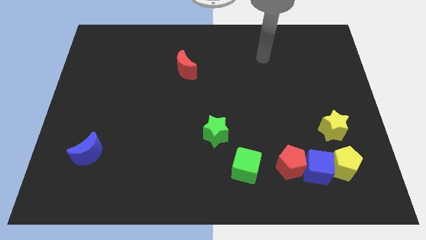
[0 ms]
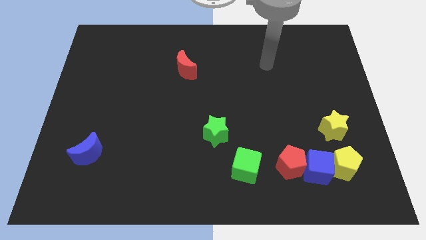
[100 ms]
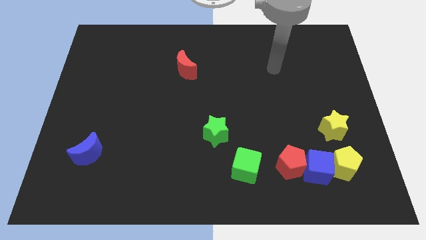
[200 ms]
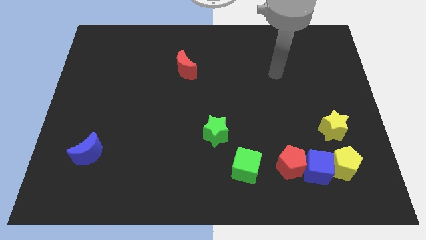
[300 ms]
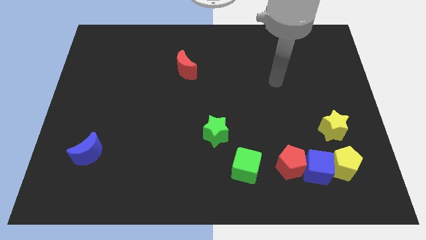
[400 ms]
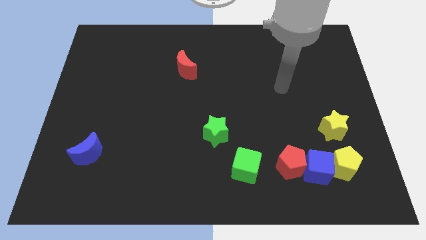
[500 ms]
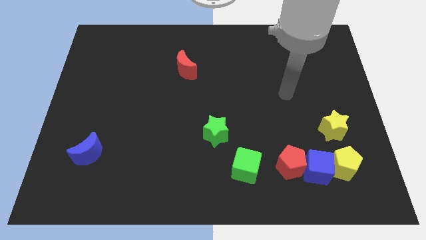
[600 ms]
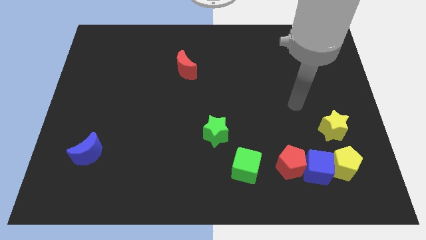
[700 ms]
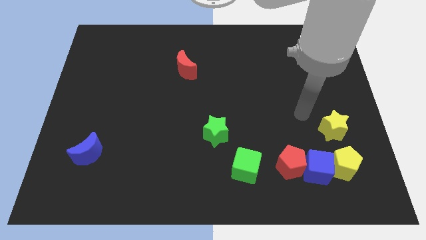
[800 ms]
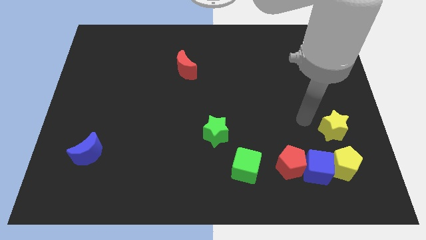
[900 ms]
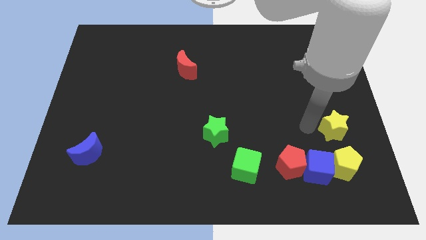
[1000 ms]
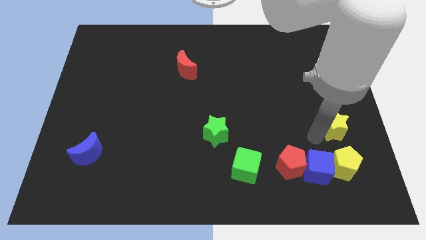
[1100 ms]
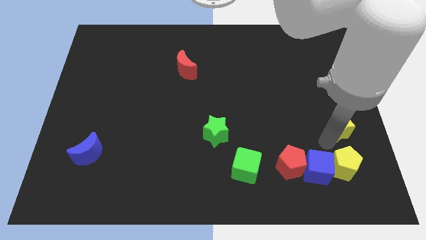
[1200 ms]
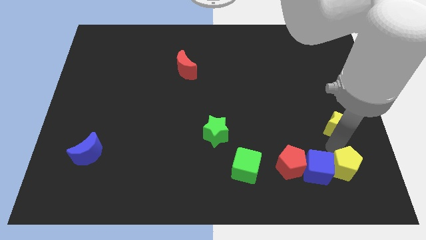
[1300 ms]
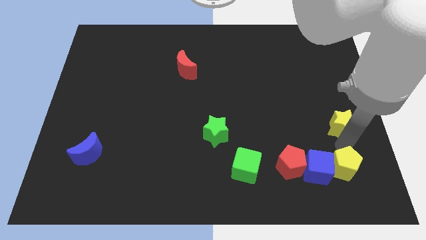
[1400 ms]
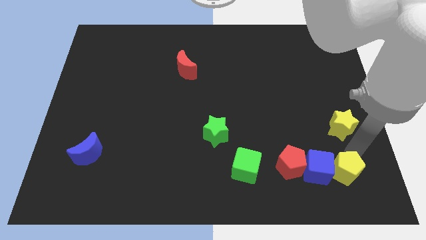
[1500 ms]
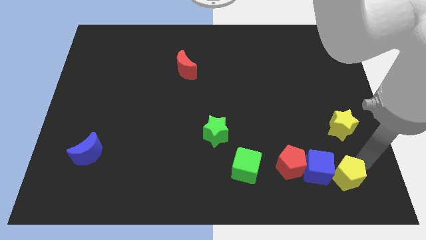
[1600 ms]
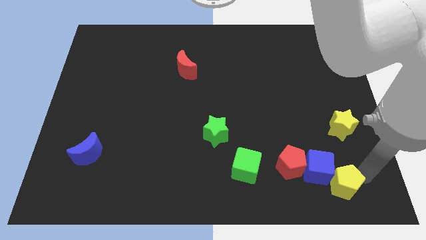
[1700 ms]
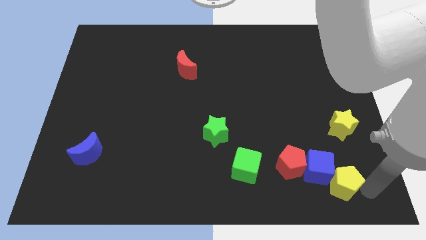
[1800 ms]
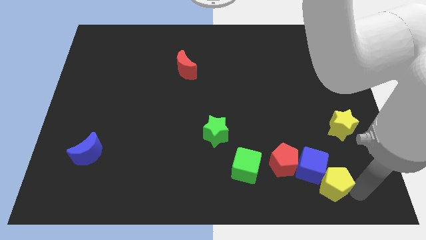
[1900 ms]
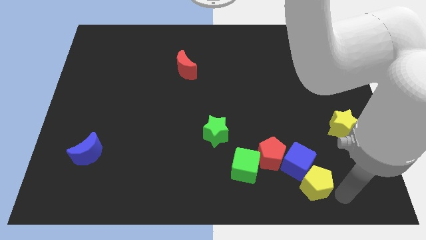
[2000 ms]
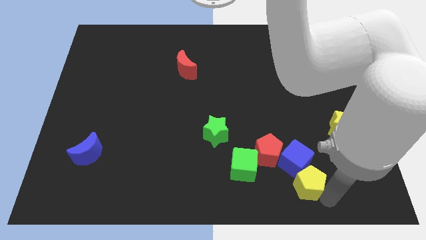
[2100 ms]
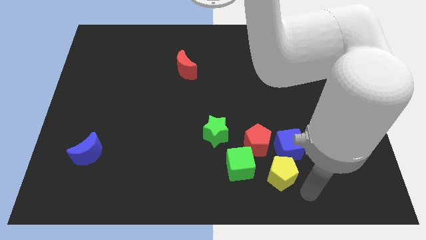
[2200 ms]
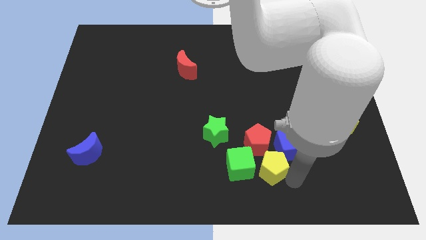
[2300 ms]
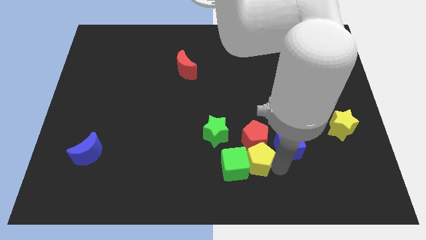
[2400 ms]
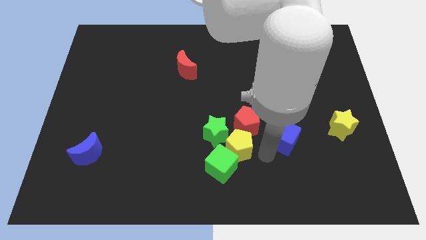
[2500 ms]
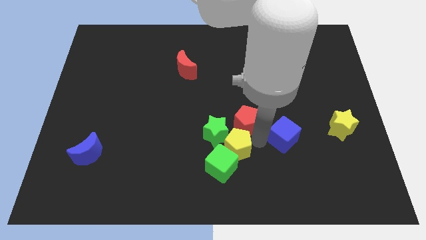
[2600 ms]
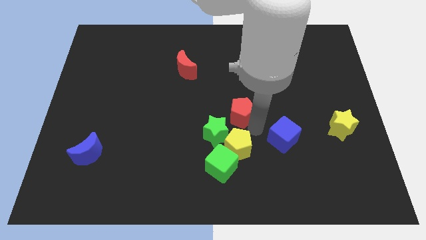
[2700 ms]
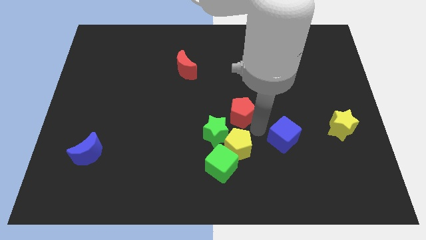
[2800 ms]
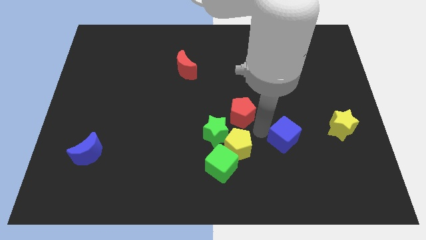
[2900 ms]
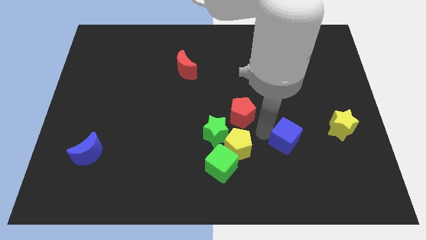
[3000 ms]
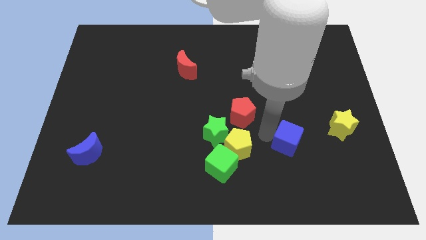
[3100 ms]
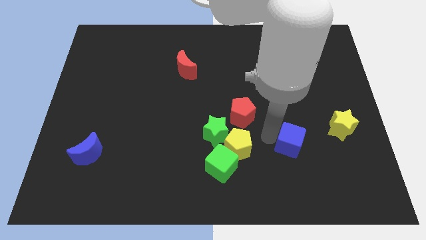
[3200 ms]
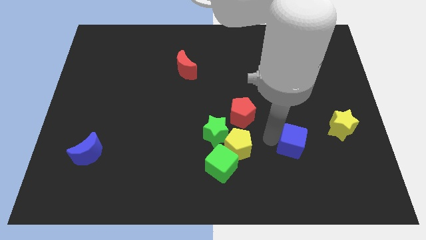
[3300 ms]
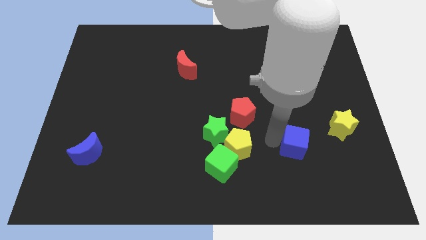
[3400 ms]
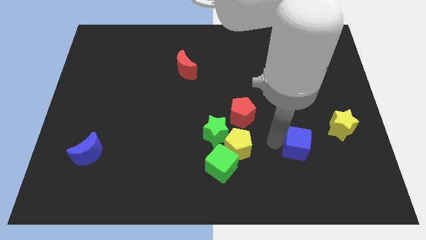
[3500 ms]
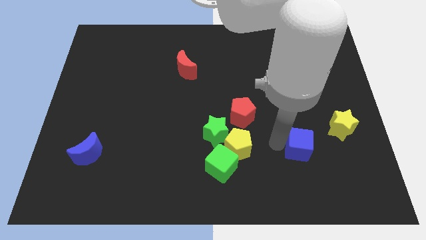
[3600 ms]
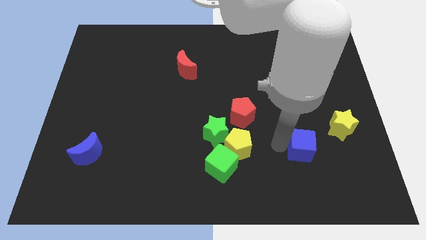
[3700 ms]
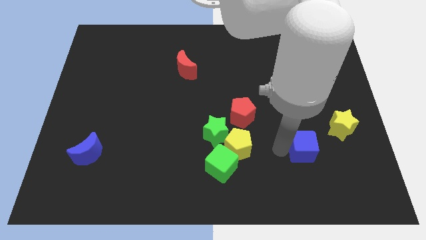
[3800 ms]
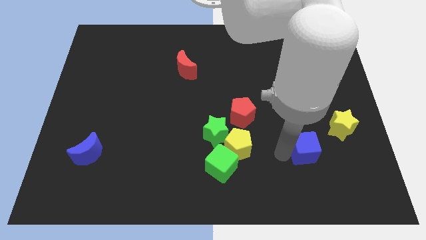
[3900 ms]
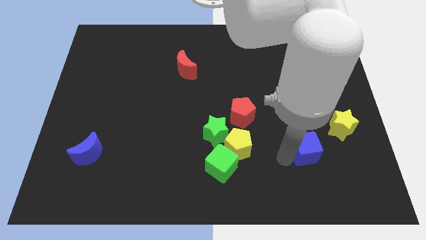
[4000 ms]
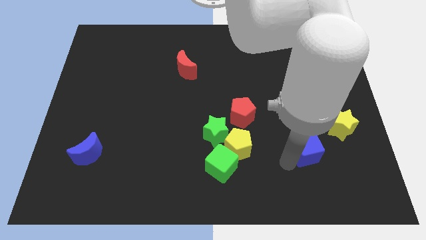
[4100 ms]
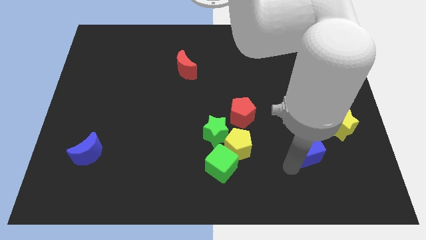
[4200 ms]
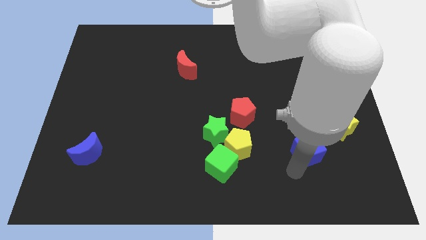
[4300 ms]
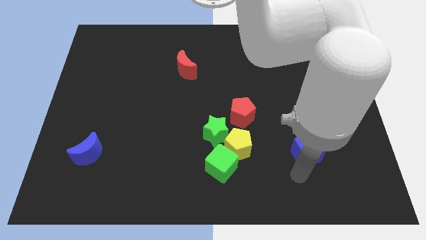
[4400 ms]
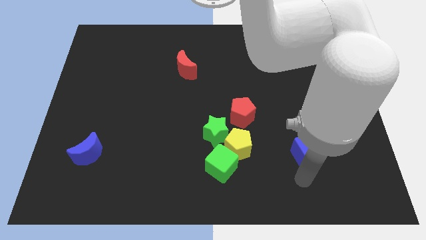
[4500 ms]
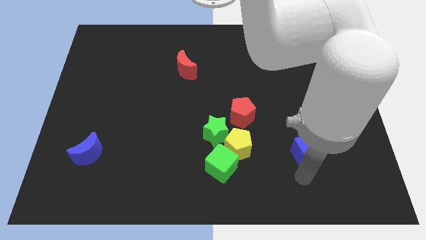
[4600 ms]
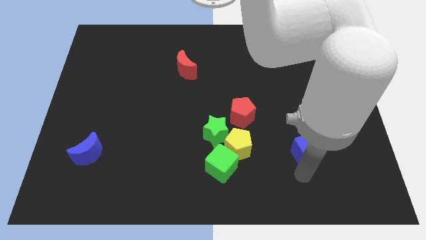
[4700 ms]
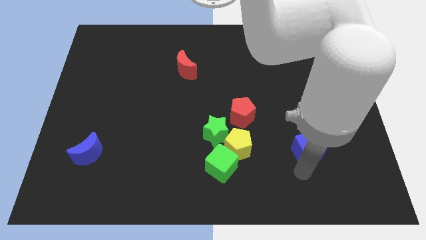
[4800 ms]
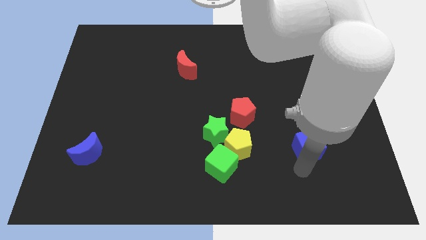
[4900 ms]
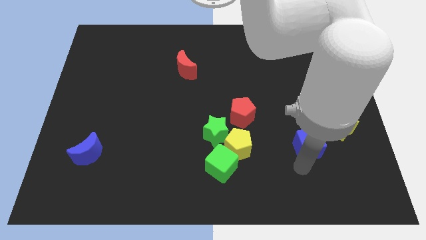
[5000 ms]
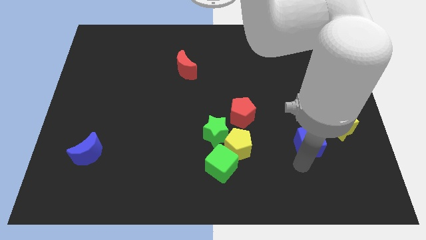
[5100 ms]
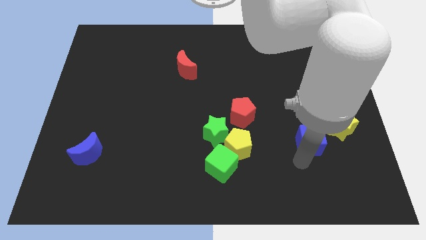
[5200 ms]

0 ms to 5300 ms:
push the blue cube up a little

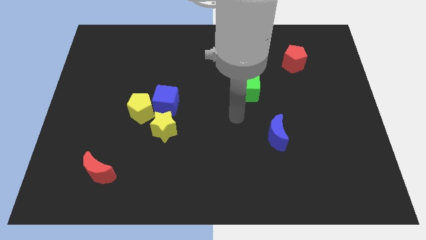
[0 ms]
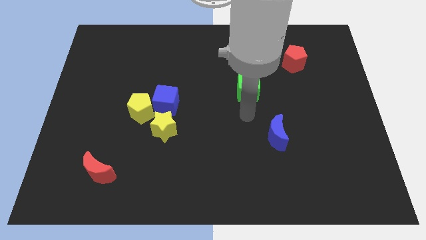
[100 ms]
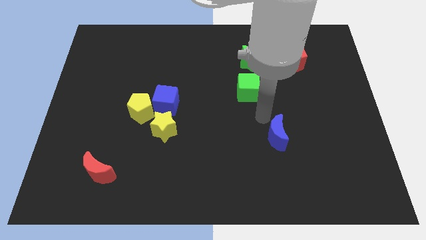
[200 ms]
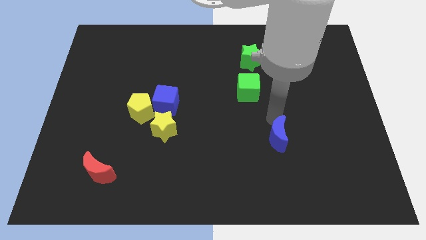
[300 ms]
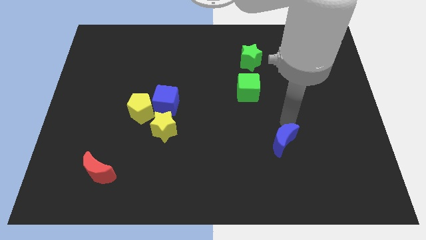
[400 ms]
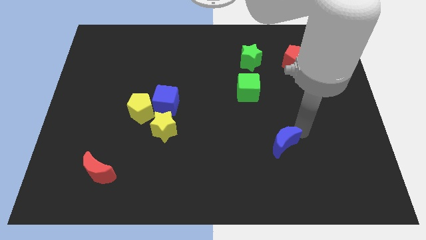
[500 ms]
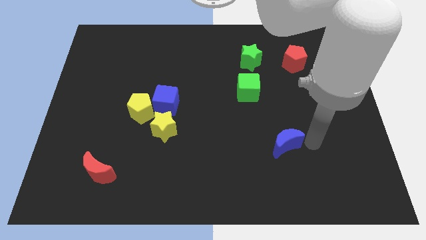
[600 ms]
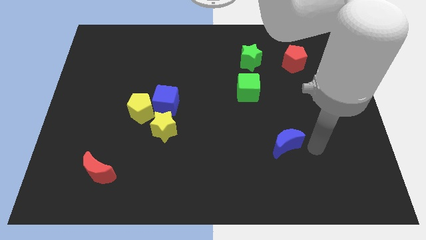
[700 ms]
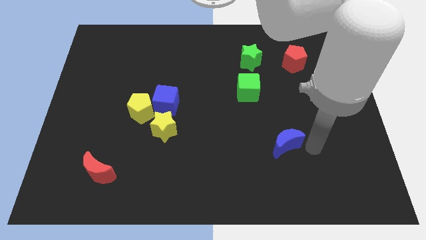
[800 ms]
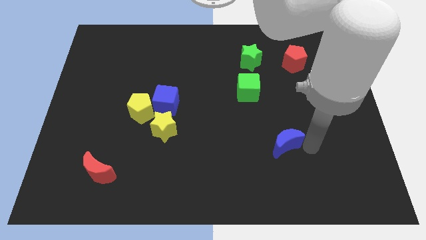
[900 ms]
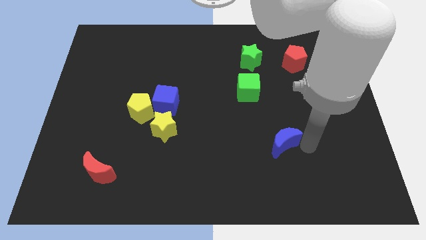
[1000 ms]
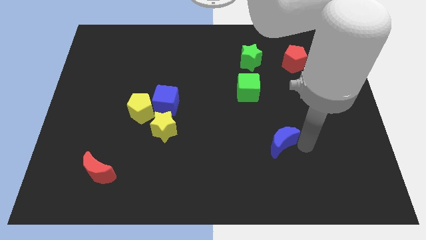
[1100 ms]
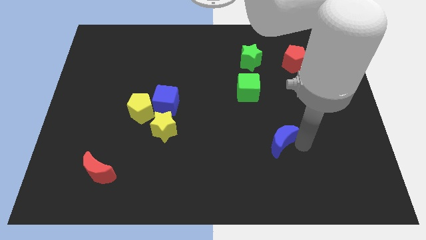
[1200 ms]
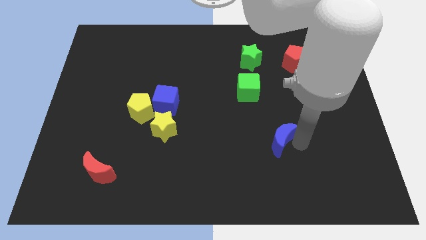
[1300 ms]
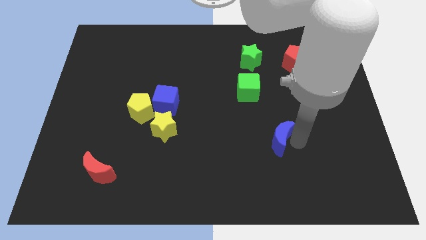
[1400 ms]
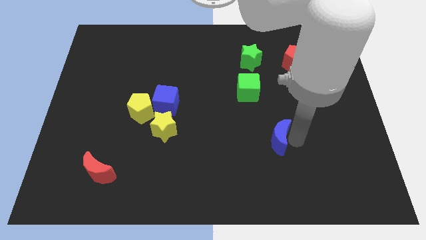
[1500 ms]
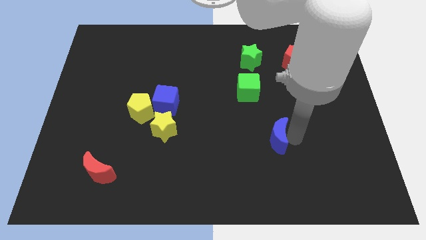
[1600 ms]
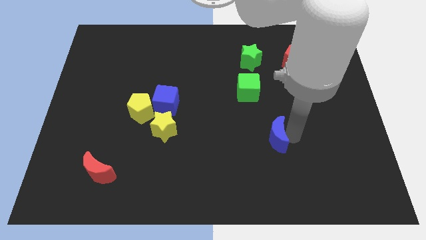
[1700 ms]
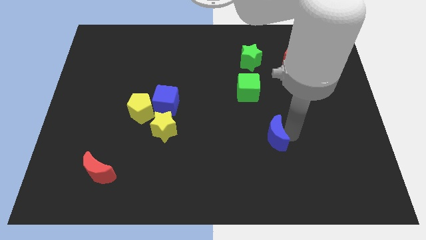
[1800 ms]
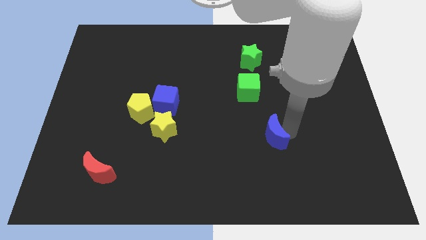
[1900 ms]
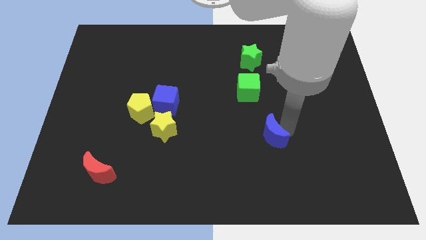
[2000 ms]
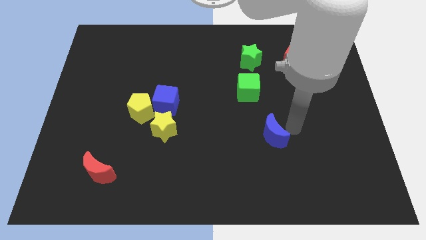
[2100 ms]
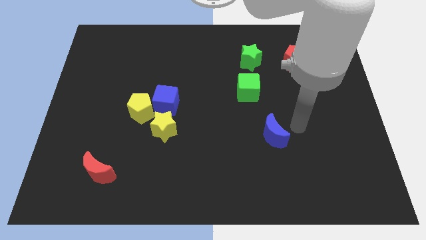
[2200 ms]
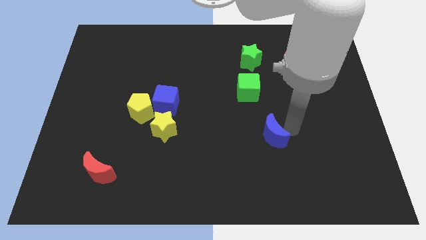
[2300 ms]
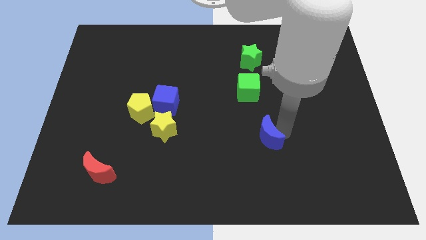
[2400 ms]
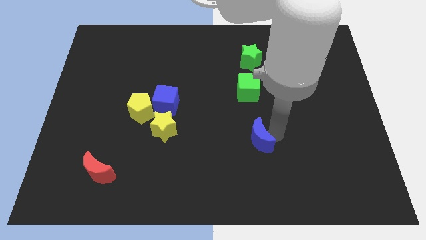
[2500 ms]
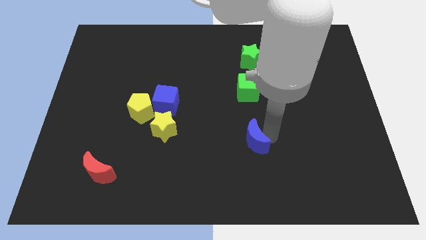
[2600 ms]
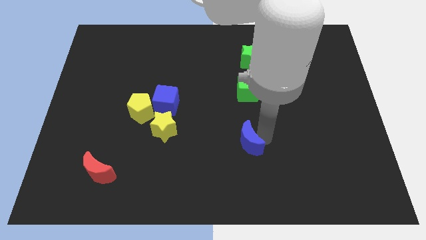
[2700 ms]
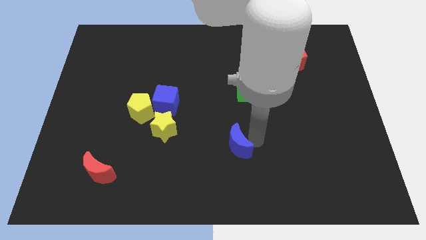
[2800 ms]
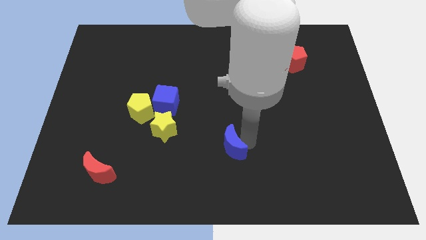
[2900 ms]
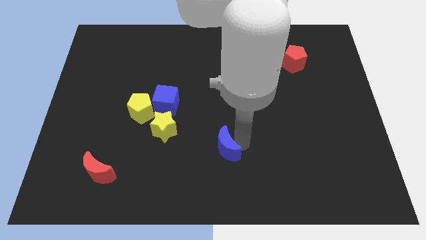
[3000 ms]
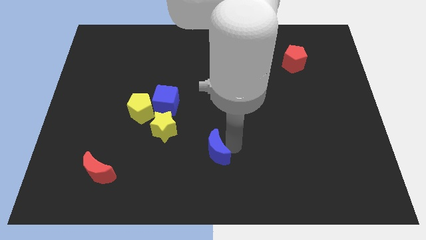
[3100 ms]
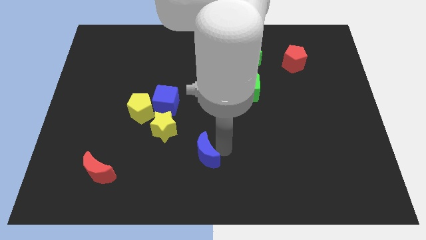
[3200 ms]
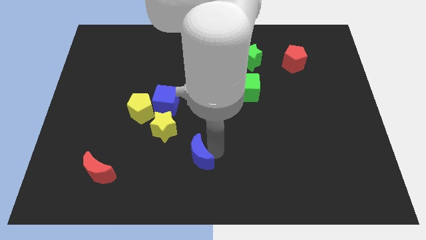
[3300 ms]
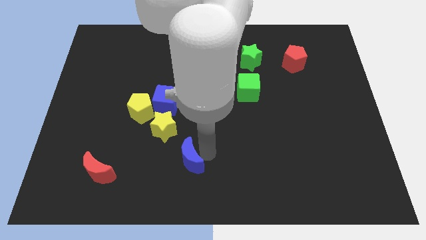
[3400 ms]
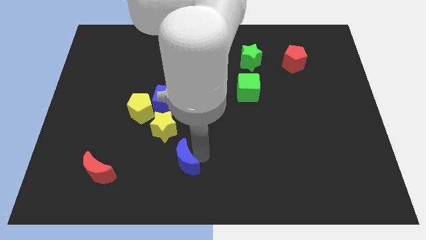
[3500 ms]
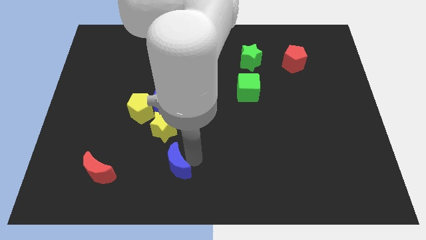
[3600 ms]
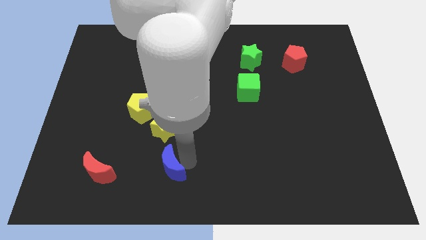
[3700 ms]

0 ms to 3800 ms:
move the blue moon left
